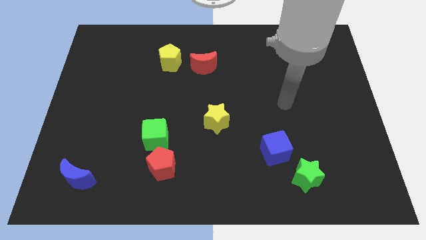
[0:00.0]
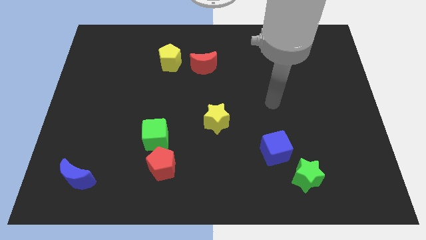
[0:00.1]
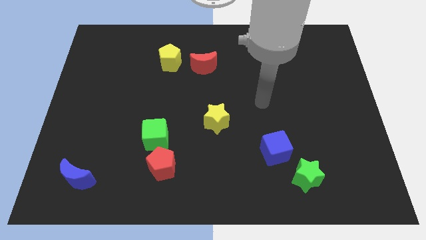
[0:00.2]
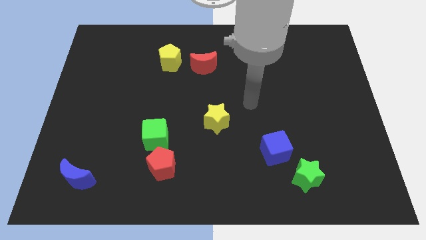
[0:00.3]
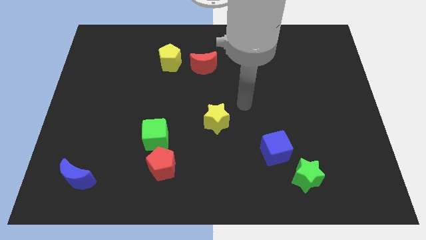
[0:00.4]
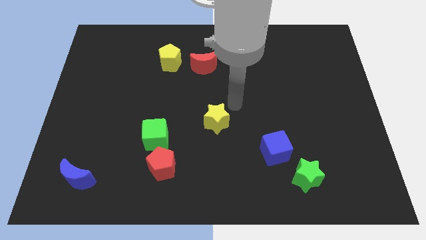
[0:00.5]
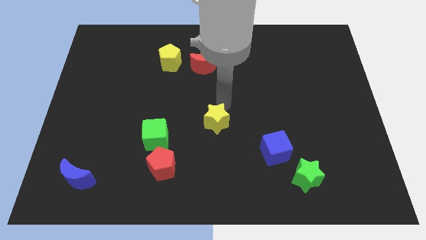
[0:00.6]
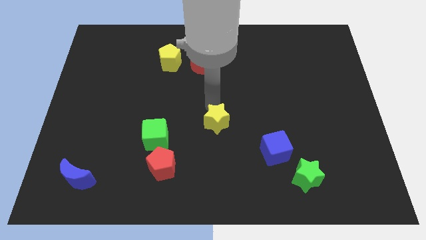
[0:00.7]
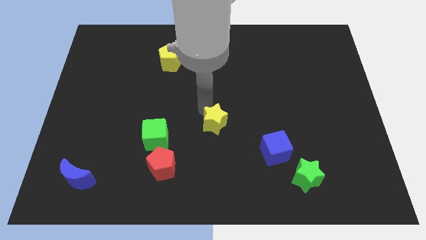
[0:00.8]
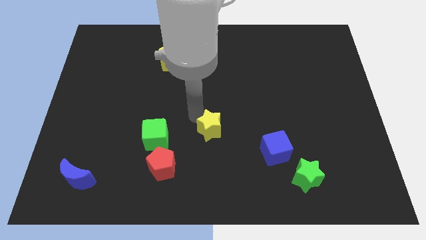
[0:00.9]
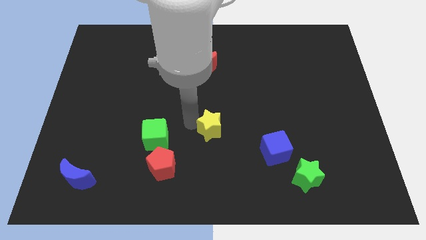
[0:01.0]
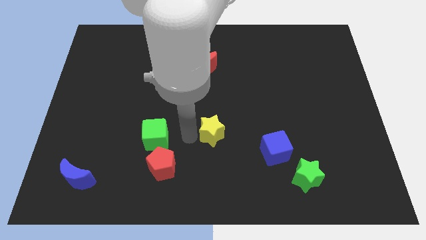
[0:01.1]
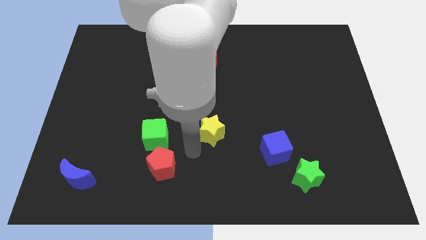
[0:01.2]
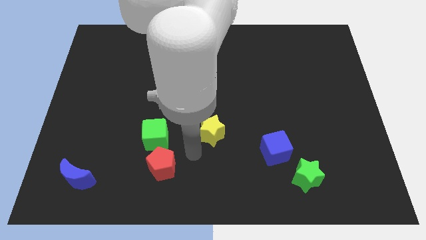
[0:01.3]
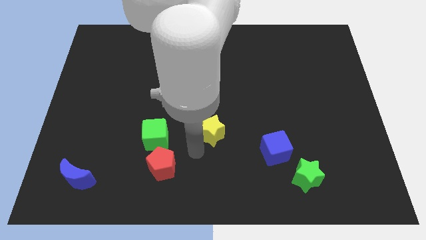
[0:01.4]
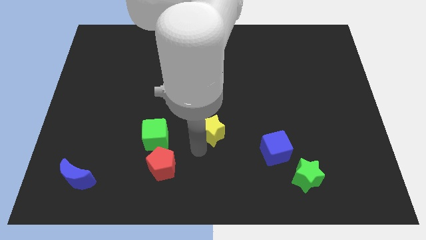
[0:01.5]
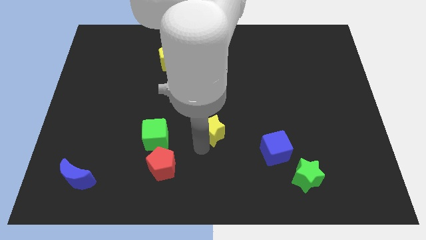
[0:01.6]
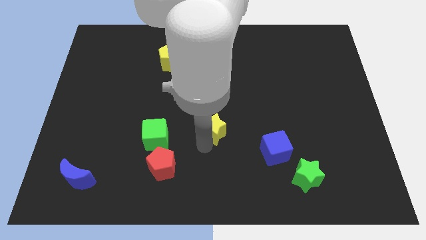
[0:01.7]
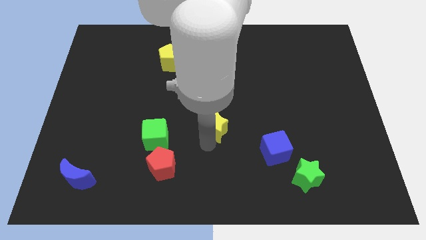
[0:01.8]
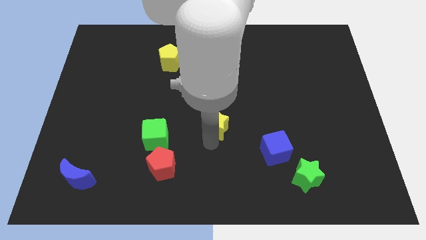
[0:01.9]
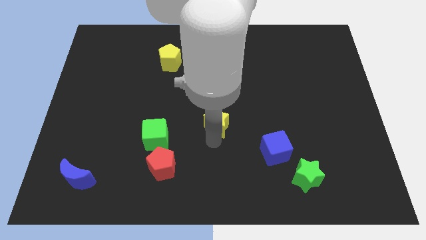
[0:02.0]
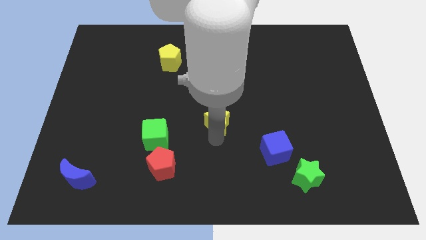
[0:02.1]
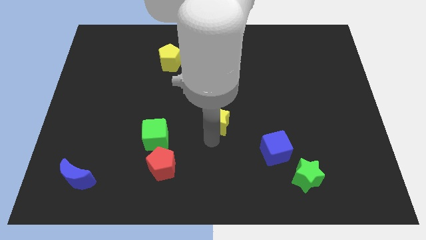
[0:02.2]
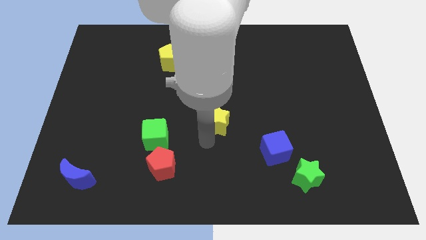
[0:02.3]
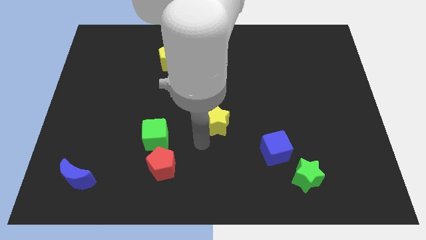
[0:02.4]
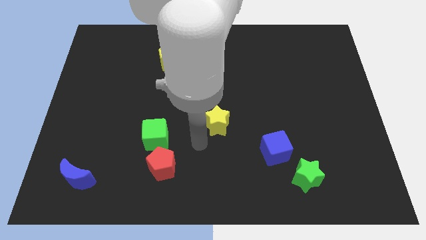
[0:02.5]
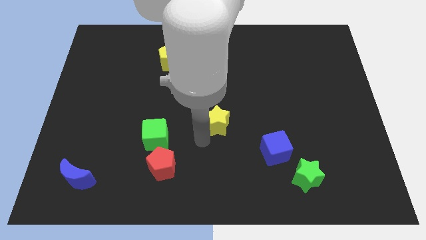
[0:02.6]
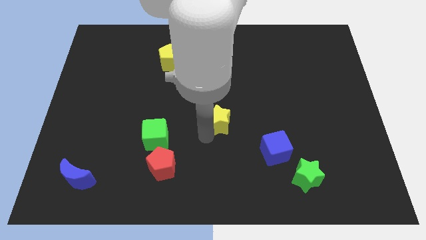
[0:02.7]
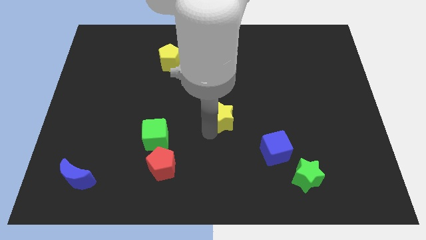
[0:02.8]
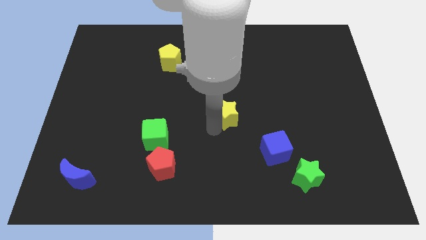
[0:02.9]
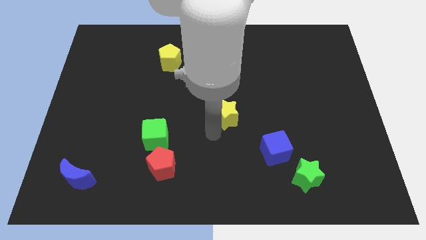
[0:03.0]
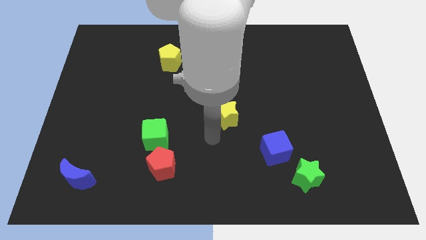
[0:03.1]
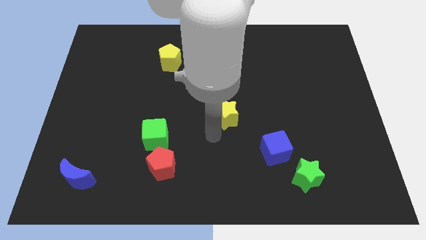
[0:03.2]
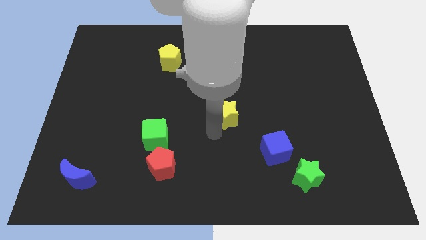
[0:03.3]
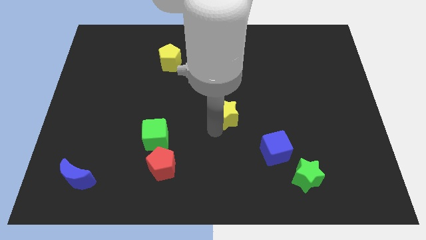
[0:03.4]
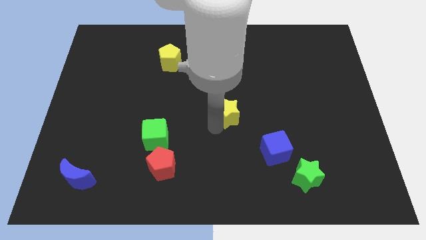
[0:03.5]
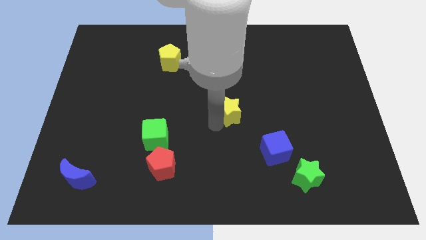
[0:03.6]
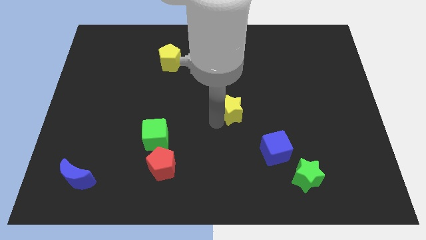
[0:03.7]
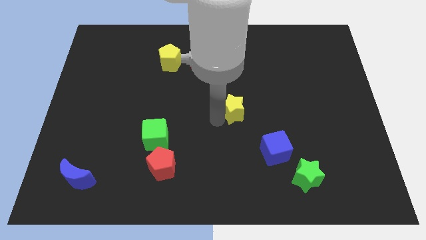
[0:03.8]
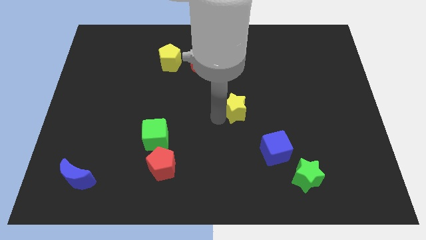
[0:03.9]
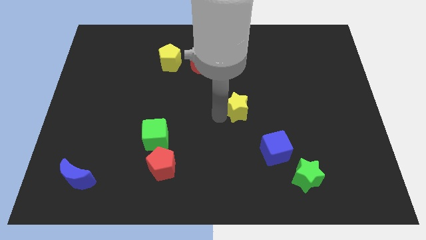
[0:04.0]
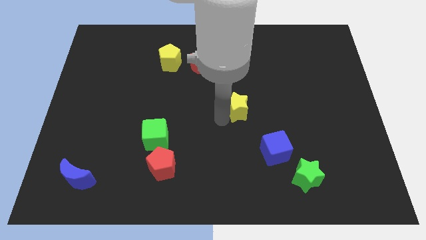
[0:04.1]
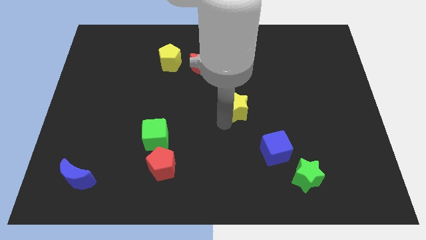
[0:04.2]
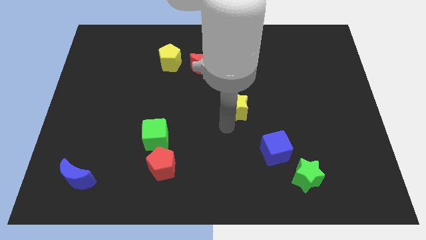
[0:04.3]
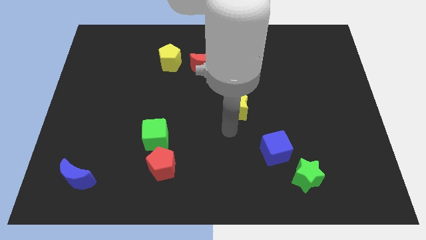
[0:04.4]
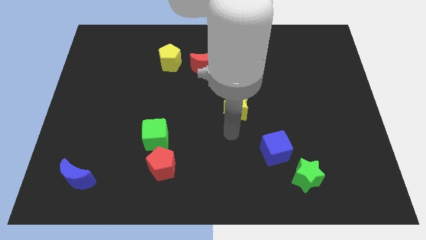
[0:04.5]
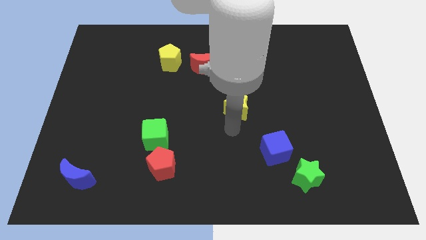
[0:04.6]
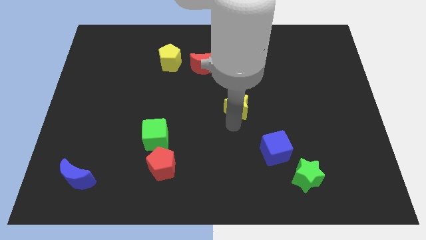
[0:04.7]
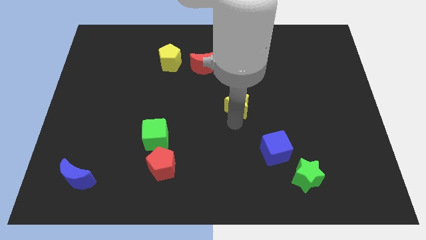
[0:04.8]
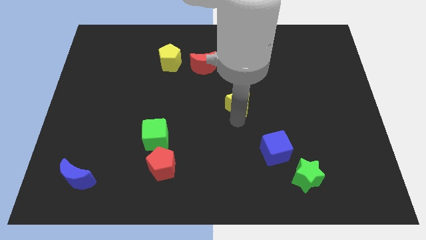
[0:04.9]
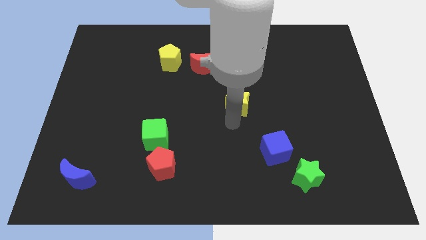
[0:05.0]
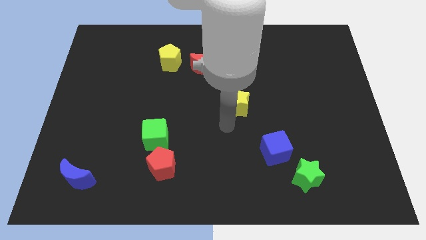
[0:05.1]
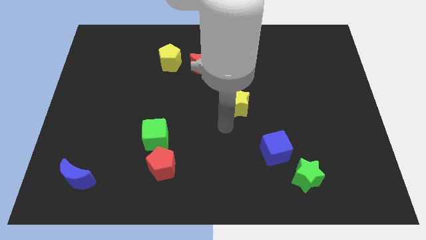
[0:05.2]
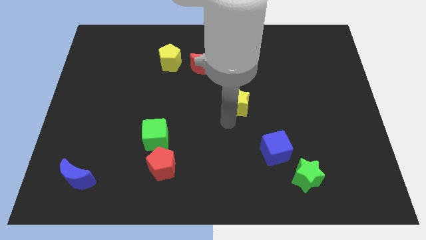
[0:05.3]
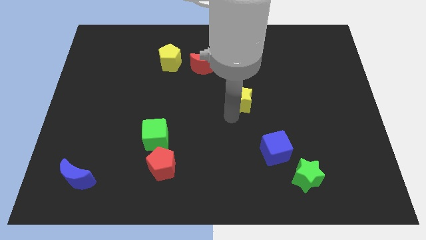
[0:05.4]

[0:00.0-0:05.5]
move the yellow star somewhat up and then to the right

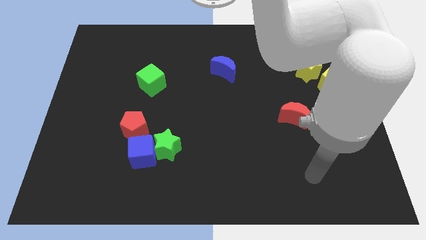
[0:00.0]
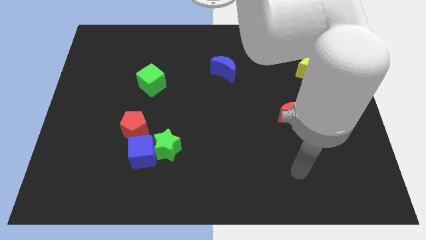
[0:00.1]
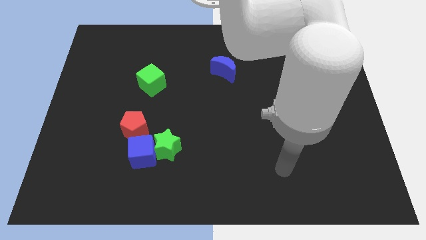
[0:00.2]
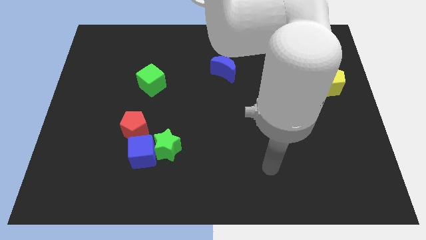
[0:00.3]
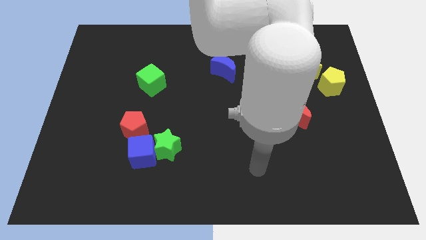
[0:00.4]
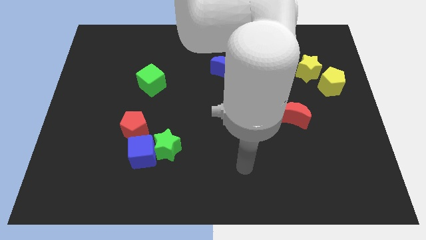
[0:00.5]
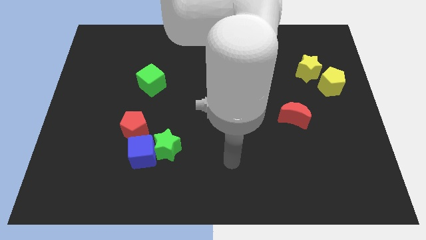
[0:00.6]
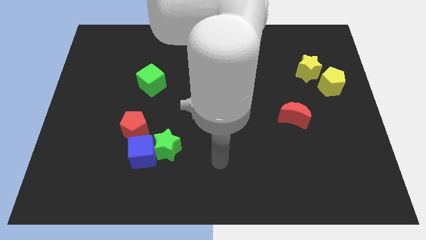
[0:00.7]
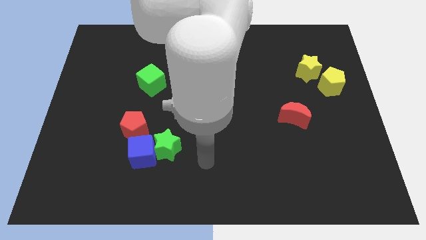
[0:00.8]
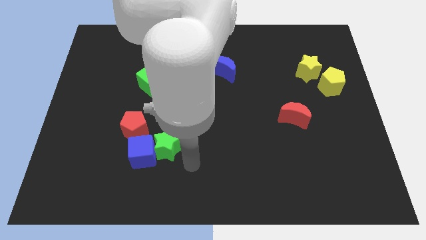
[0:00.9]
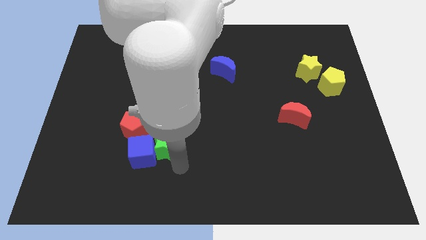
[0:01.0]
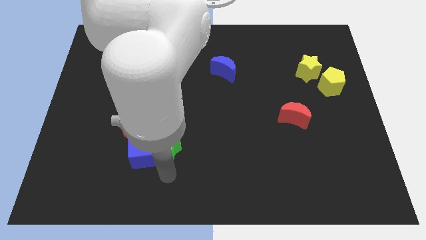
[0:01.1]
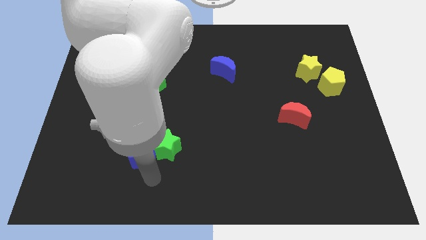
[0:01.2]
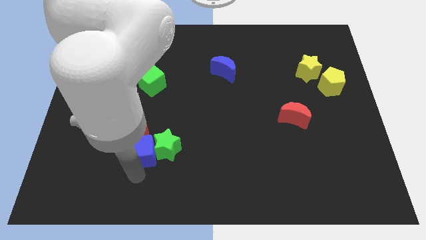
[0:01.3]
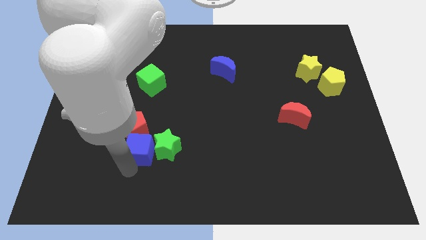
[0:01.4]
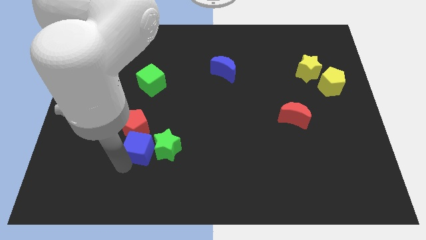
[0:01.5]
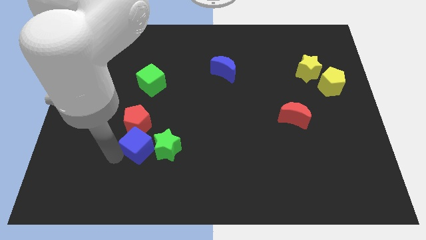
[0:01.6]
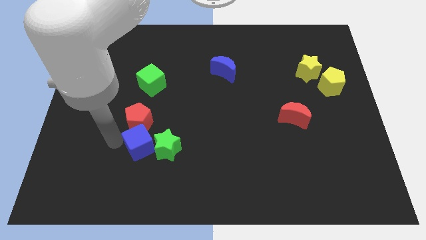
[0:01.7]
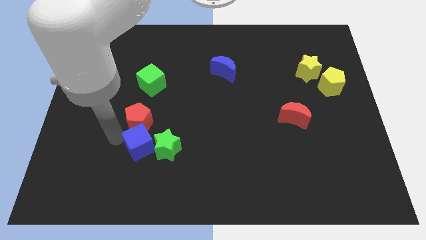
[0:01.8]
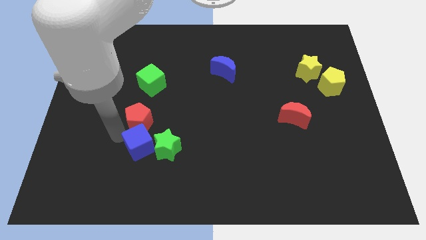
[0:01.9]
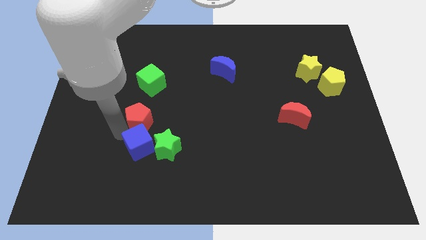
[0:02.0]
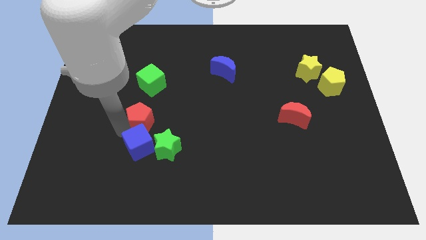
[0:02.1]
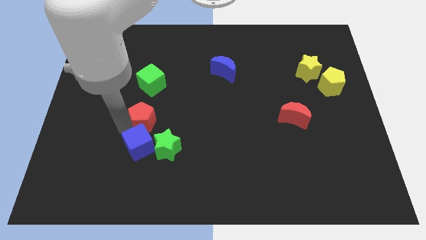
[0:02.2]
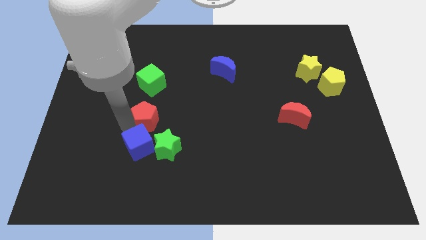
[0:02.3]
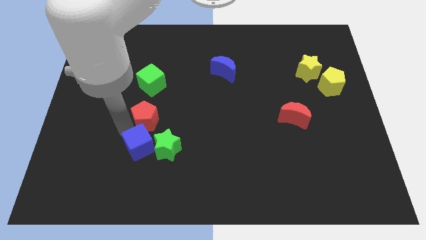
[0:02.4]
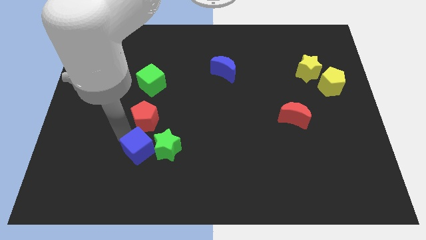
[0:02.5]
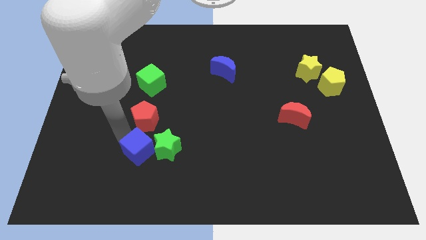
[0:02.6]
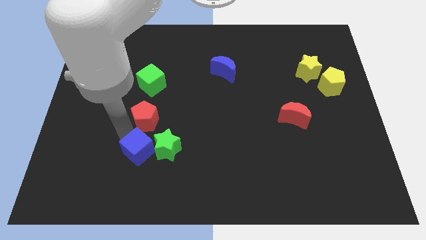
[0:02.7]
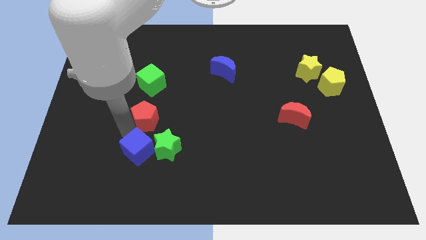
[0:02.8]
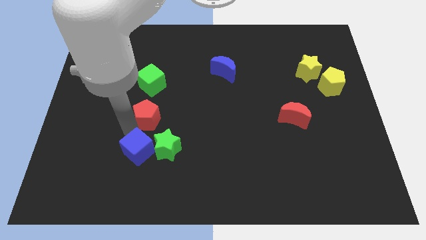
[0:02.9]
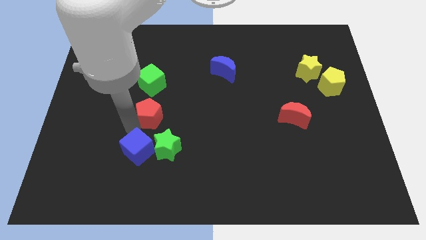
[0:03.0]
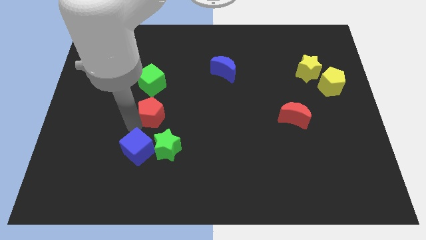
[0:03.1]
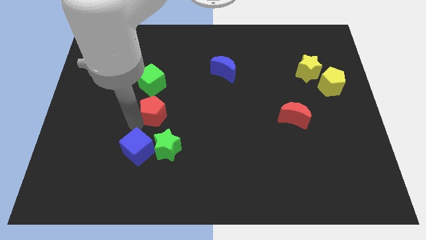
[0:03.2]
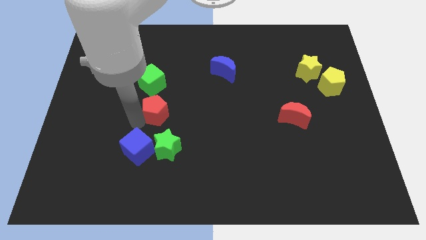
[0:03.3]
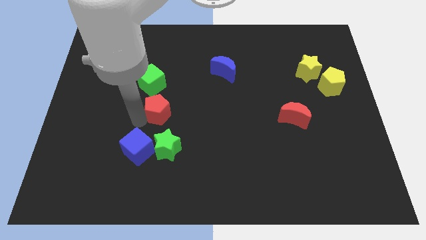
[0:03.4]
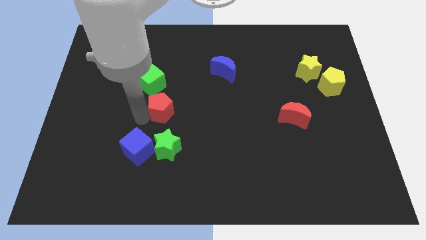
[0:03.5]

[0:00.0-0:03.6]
slide the red pentagon a little up and right diagonally
